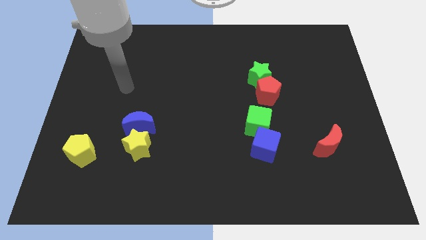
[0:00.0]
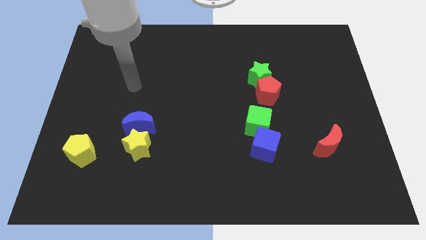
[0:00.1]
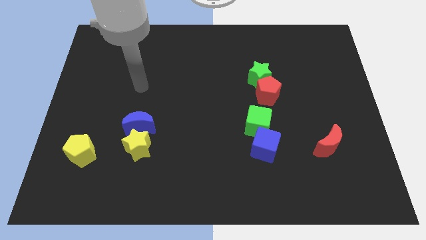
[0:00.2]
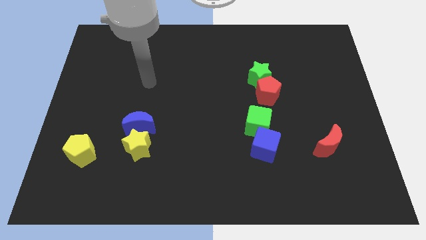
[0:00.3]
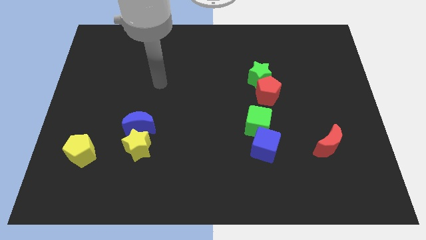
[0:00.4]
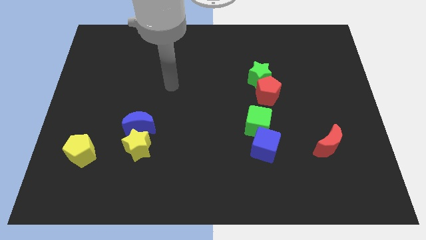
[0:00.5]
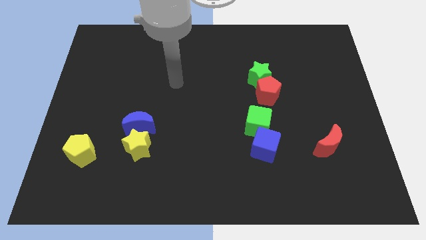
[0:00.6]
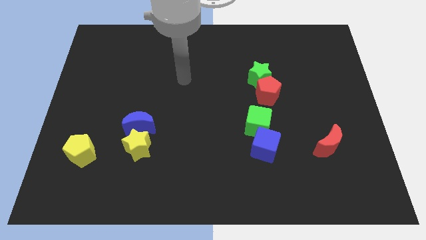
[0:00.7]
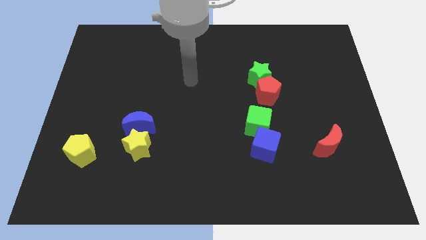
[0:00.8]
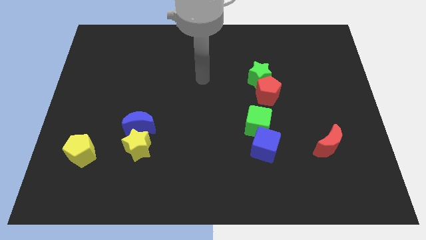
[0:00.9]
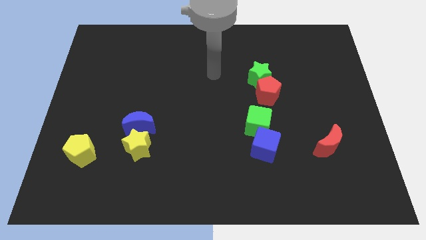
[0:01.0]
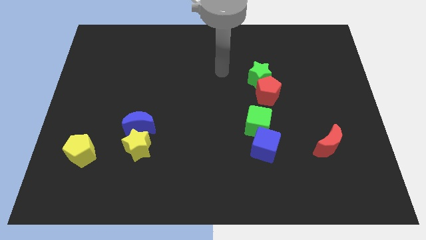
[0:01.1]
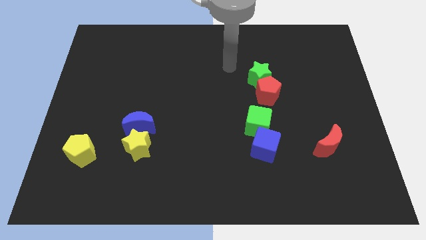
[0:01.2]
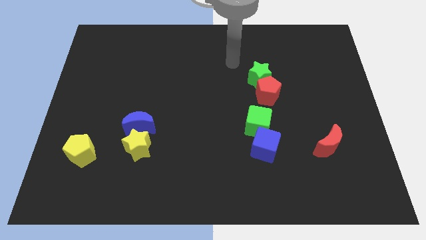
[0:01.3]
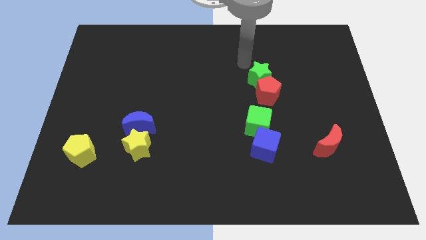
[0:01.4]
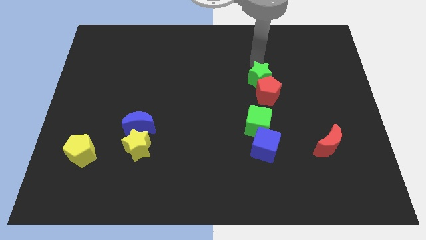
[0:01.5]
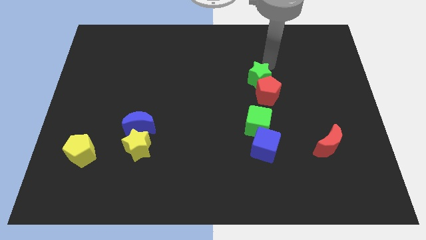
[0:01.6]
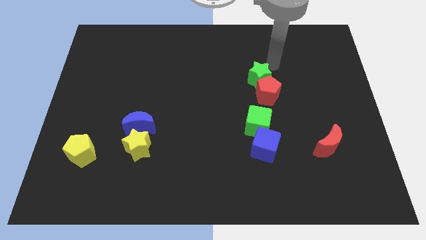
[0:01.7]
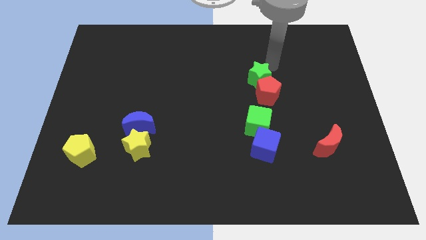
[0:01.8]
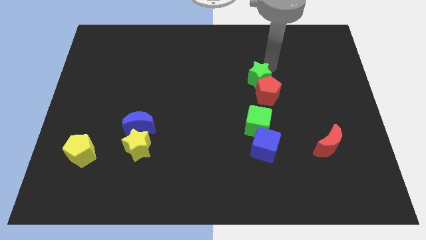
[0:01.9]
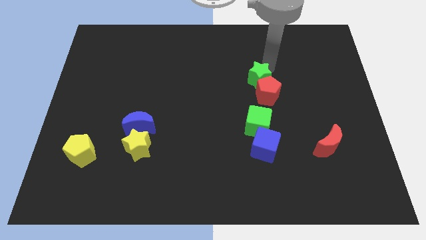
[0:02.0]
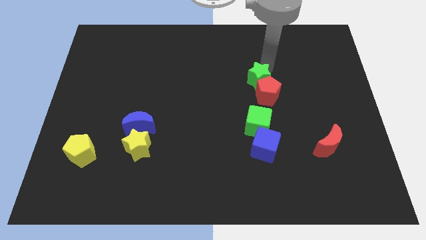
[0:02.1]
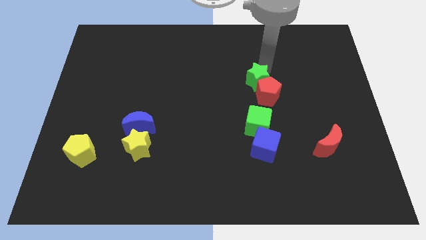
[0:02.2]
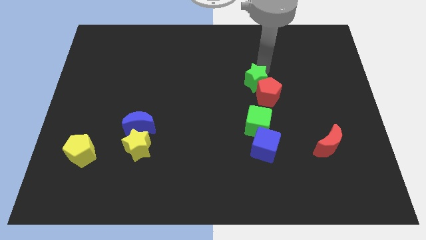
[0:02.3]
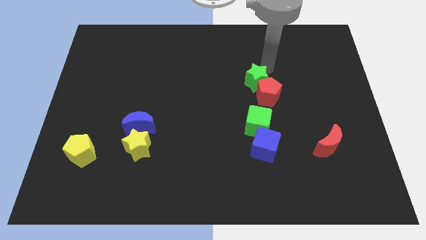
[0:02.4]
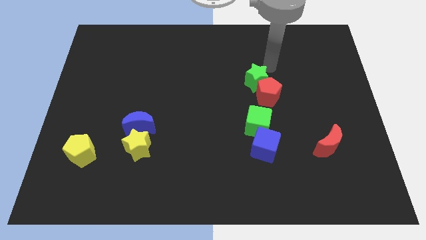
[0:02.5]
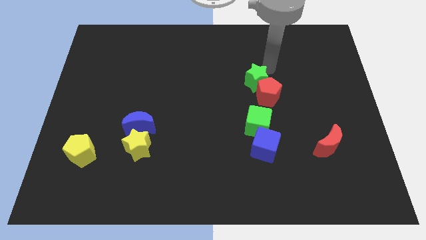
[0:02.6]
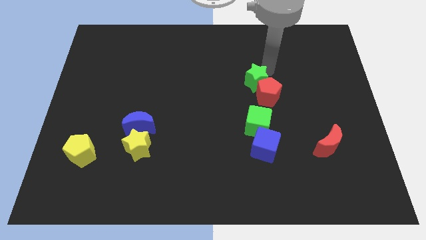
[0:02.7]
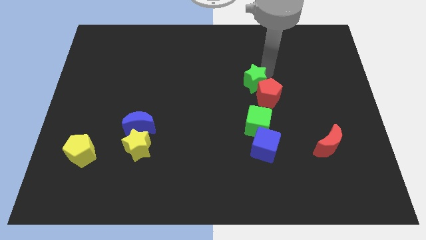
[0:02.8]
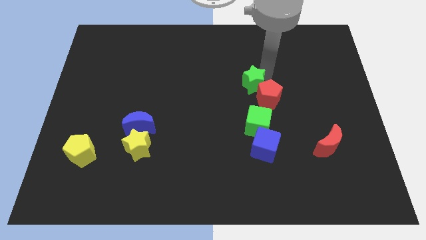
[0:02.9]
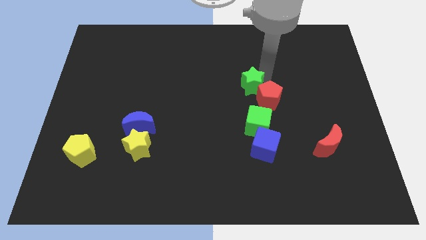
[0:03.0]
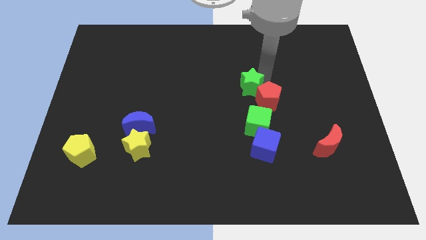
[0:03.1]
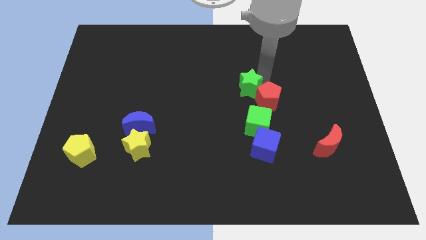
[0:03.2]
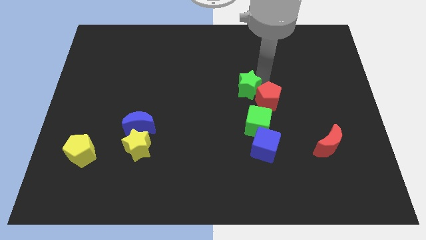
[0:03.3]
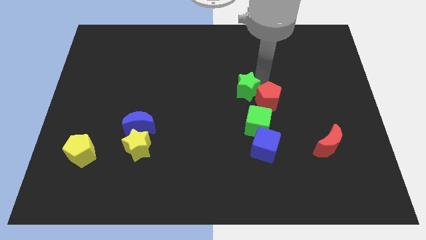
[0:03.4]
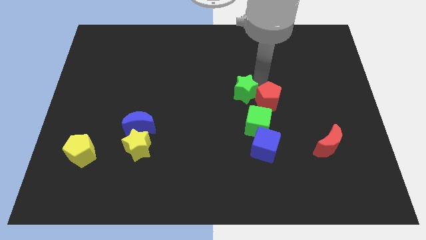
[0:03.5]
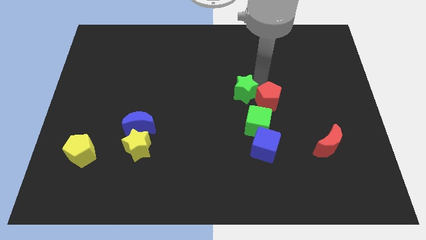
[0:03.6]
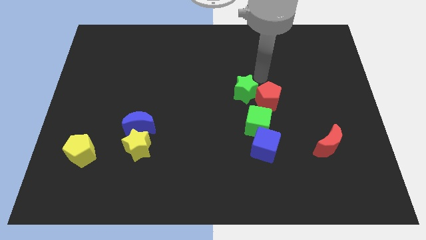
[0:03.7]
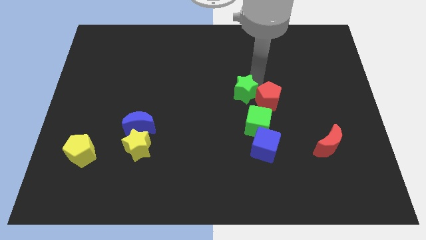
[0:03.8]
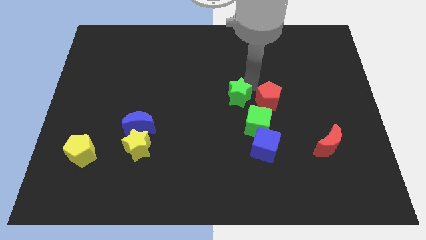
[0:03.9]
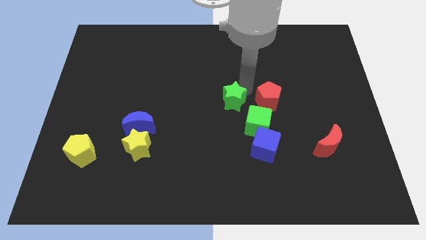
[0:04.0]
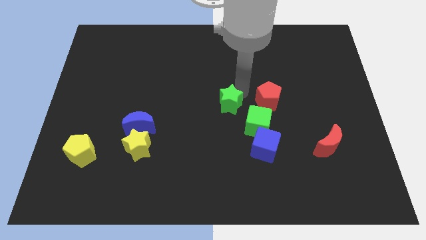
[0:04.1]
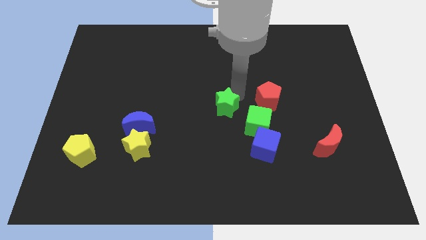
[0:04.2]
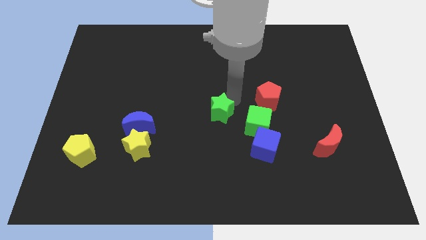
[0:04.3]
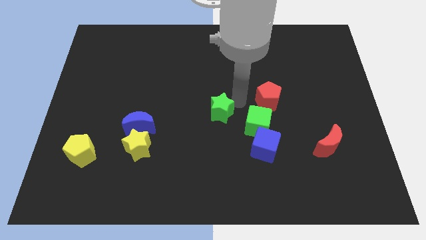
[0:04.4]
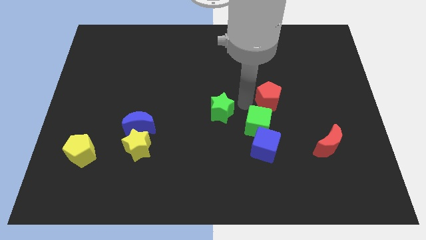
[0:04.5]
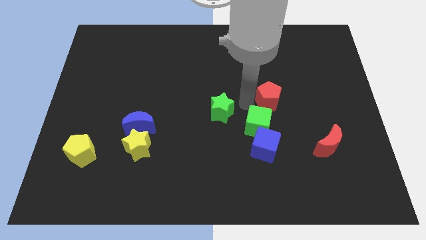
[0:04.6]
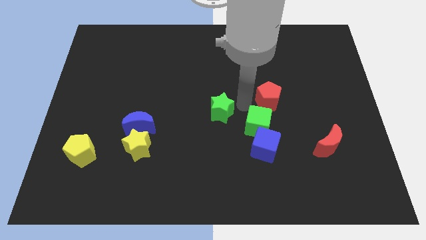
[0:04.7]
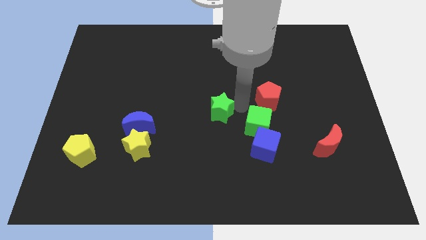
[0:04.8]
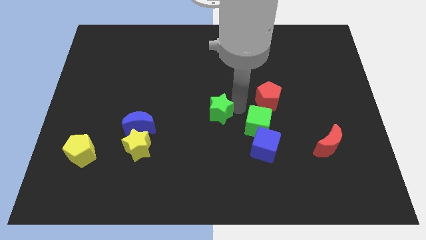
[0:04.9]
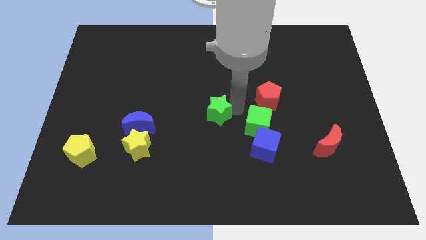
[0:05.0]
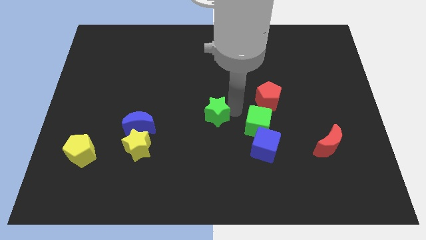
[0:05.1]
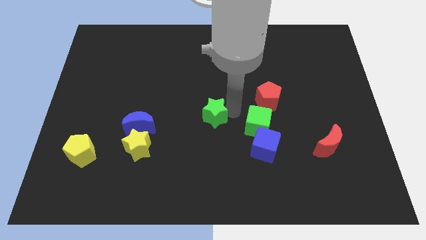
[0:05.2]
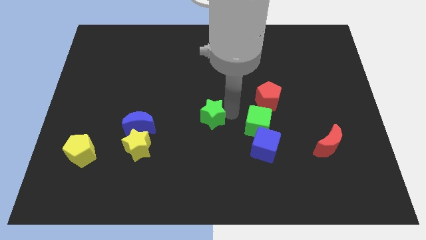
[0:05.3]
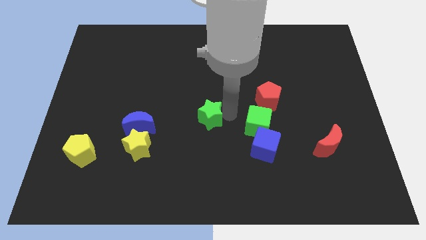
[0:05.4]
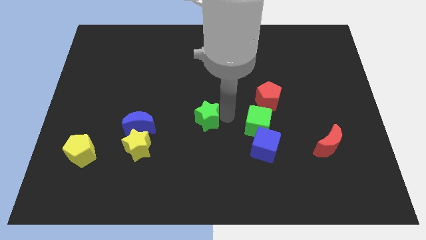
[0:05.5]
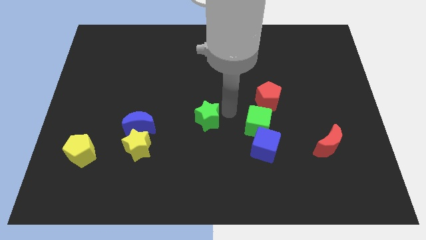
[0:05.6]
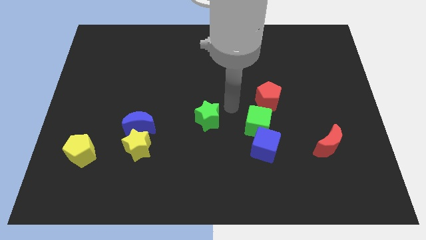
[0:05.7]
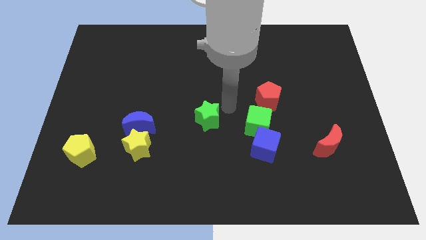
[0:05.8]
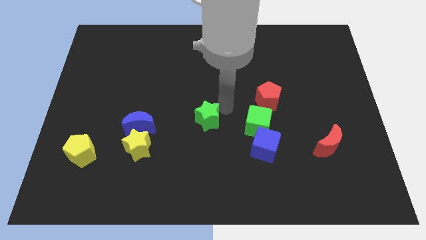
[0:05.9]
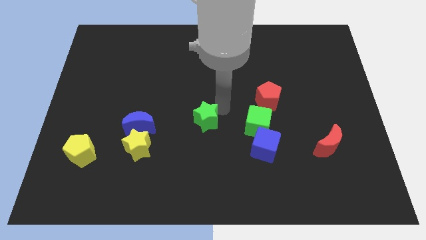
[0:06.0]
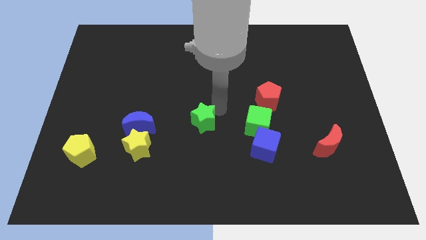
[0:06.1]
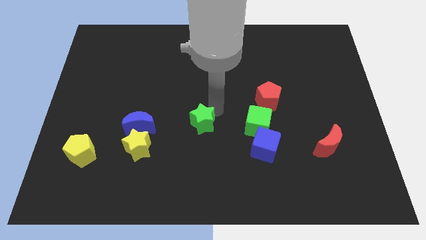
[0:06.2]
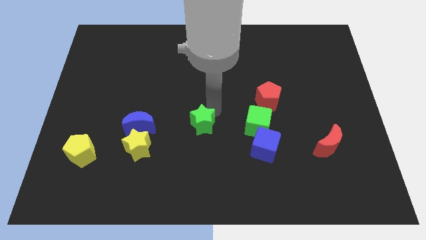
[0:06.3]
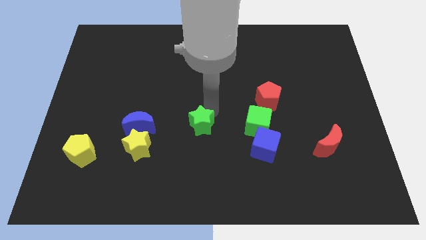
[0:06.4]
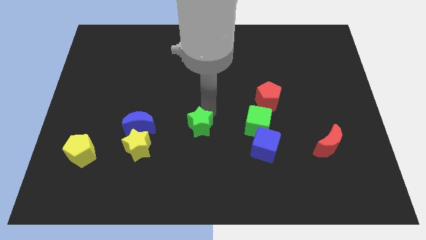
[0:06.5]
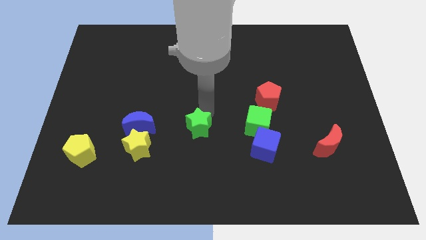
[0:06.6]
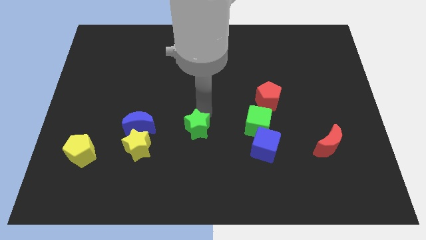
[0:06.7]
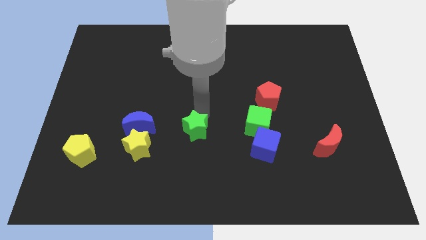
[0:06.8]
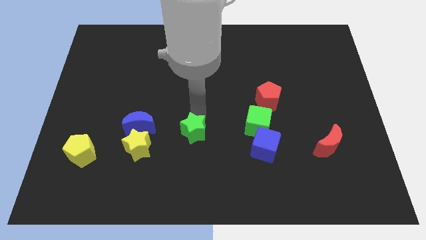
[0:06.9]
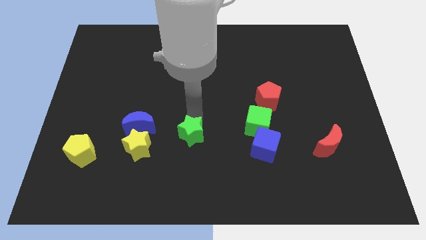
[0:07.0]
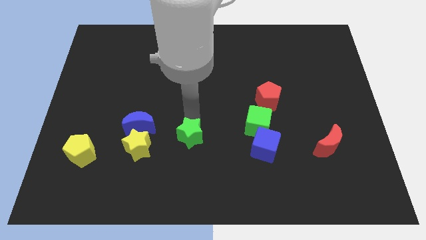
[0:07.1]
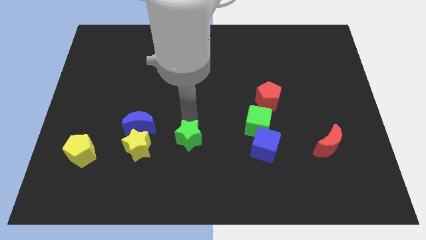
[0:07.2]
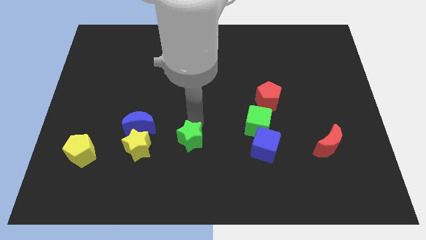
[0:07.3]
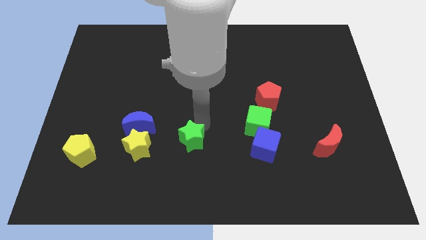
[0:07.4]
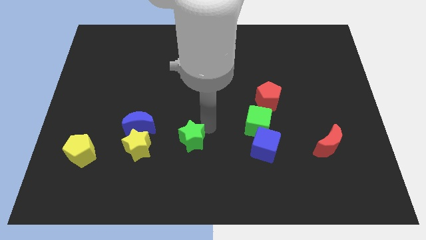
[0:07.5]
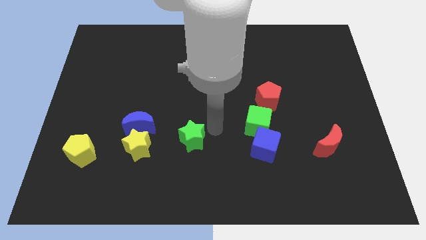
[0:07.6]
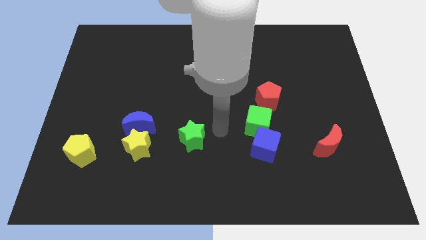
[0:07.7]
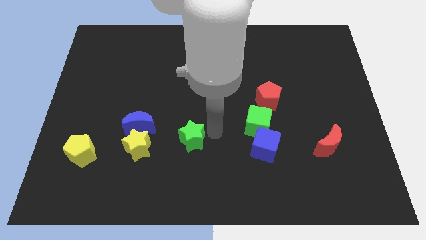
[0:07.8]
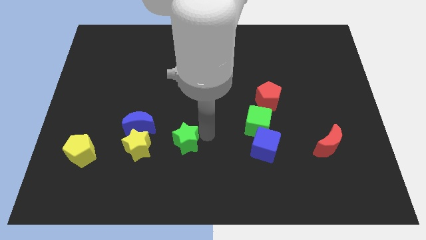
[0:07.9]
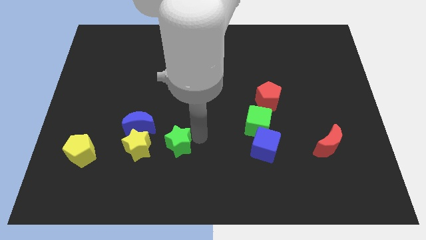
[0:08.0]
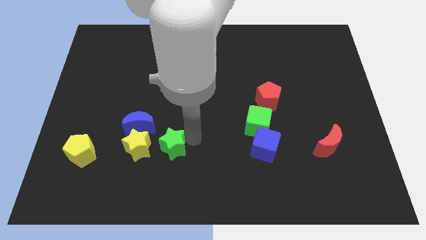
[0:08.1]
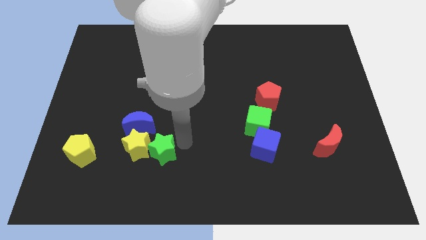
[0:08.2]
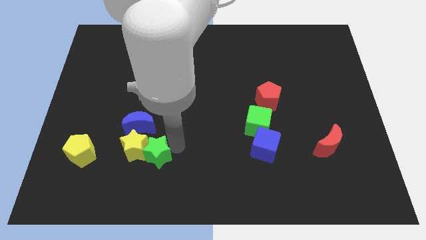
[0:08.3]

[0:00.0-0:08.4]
slide the green star just right of the yellow pentagon
